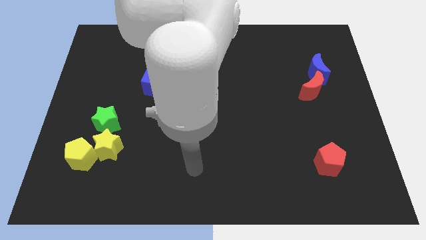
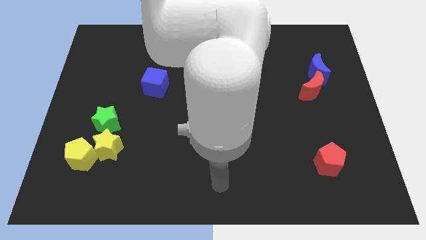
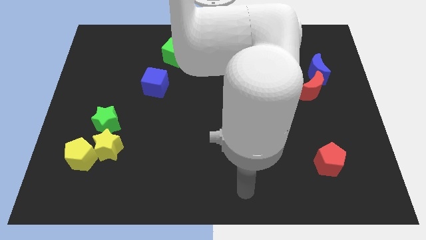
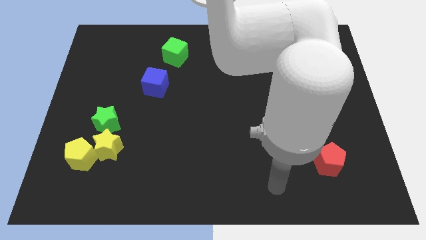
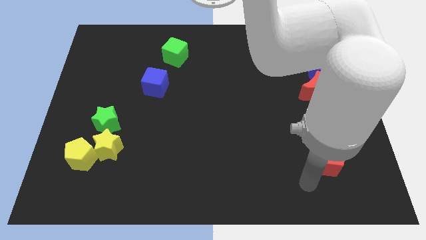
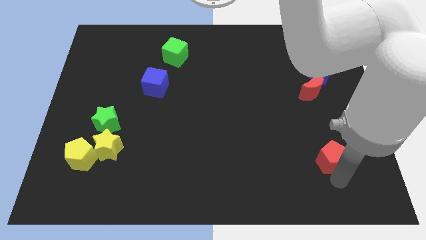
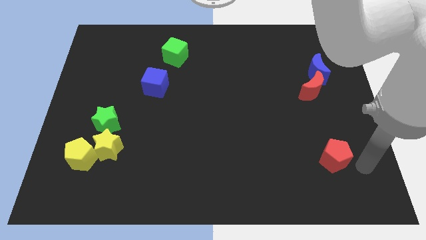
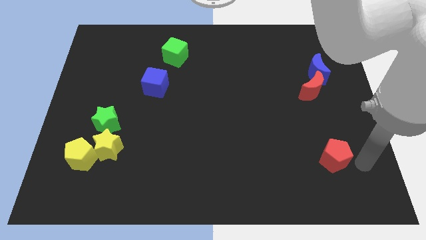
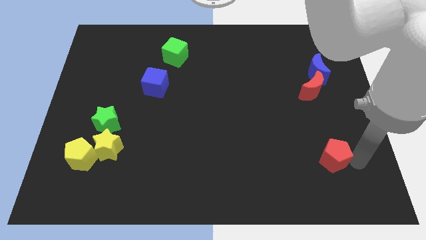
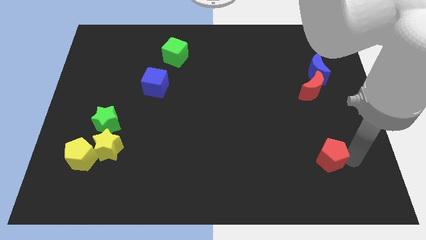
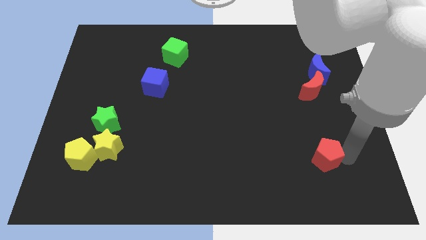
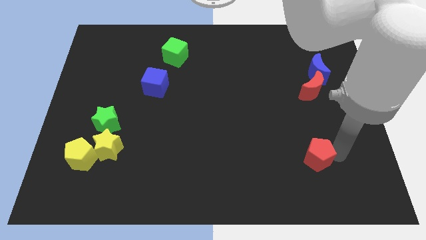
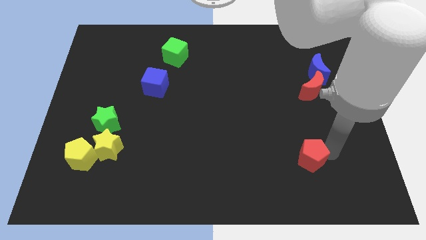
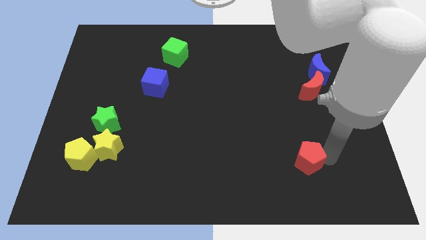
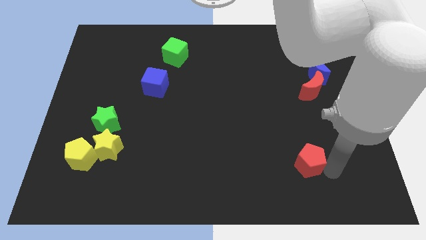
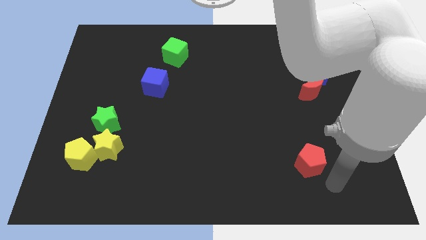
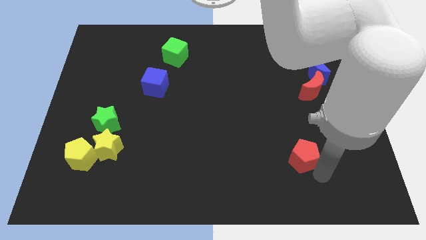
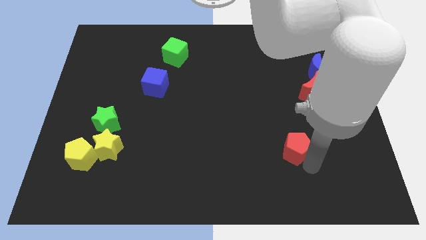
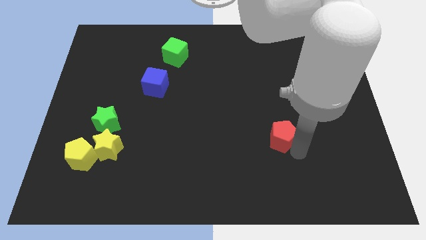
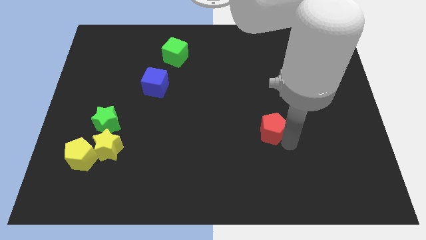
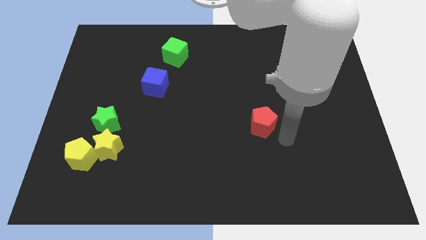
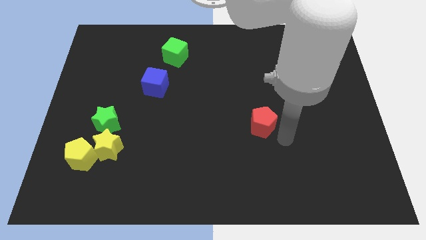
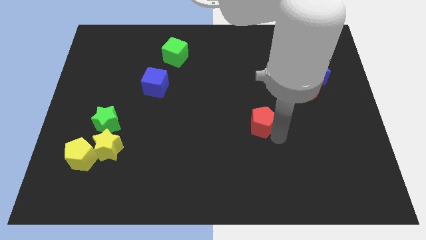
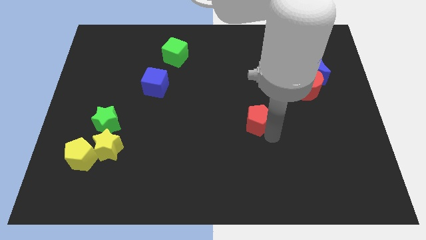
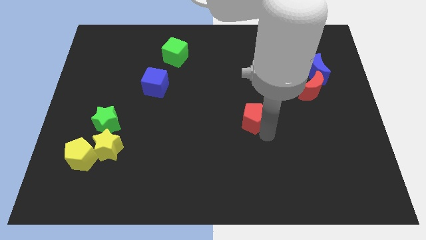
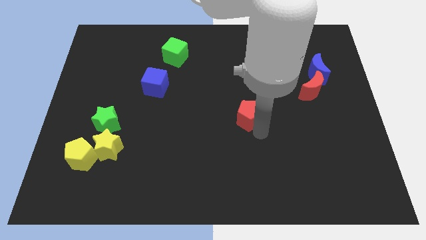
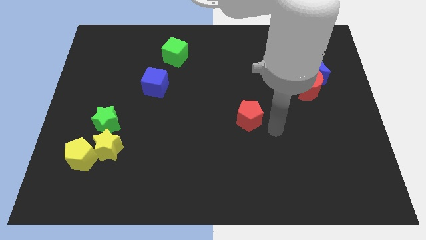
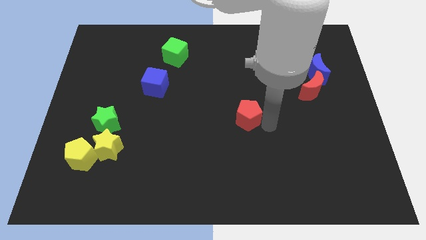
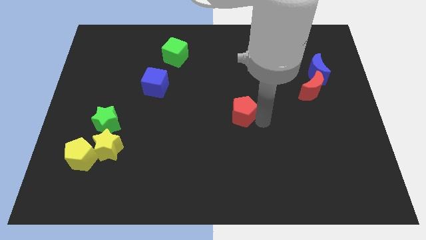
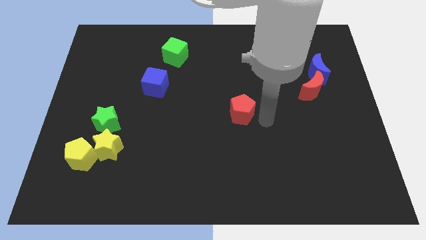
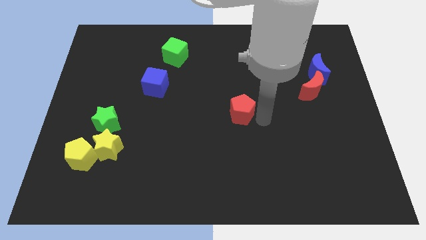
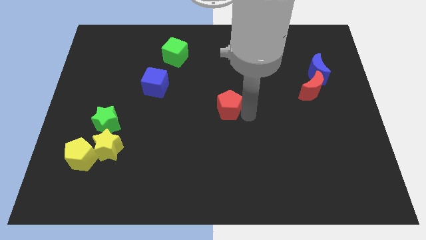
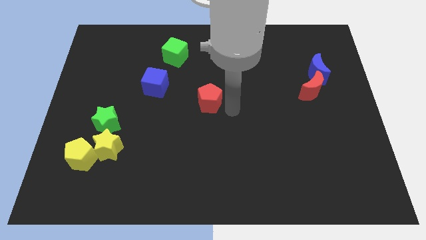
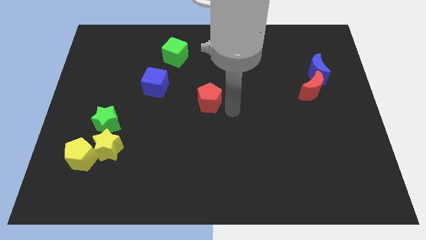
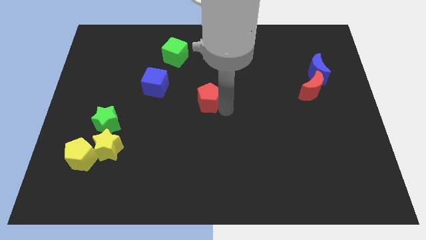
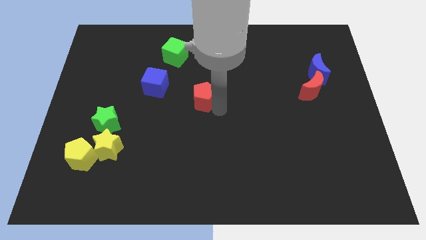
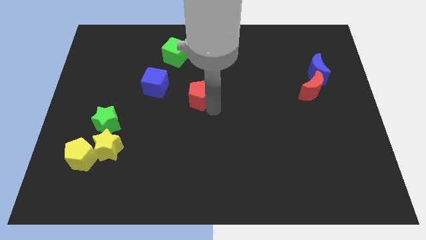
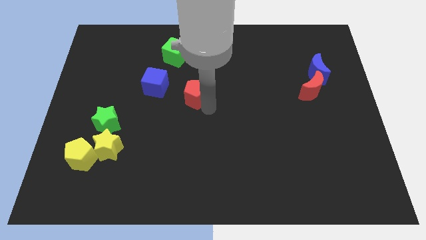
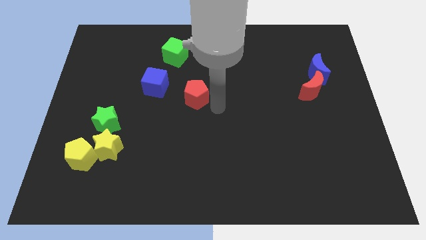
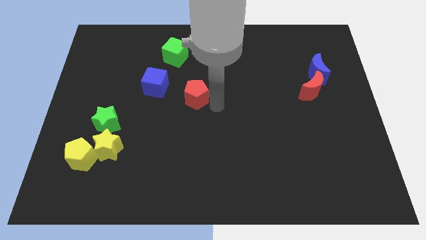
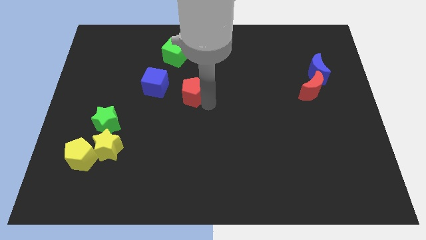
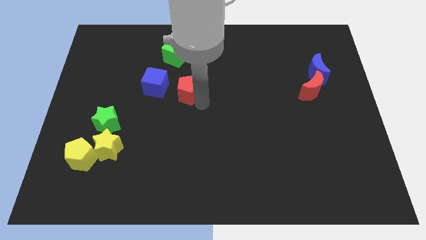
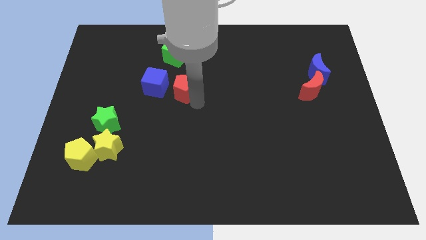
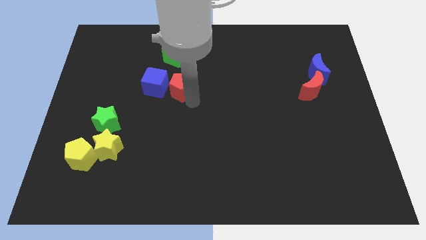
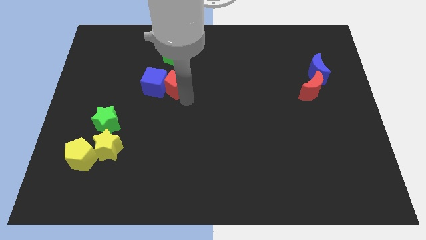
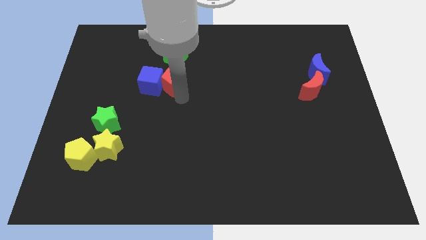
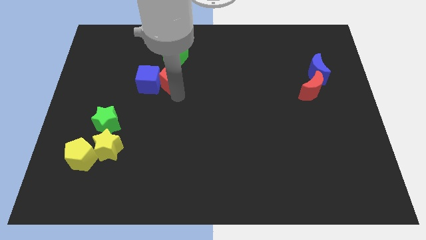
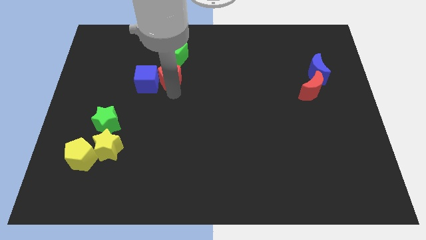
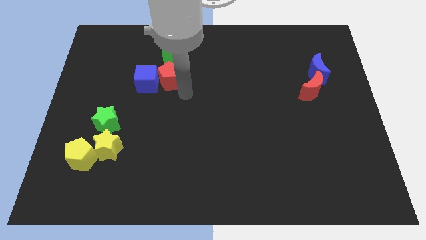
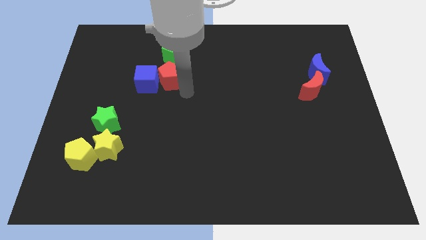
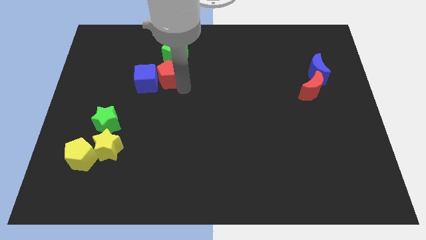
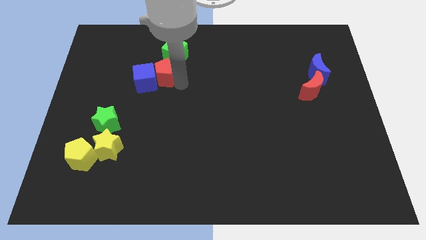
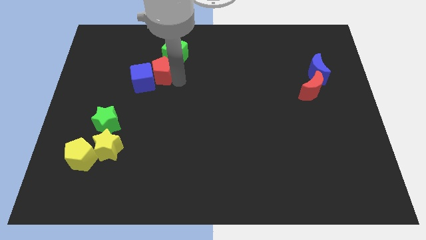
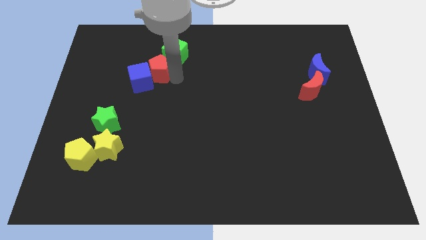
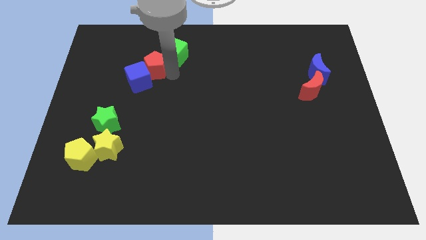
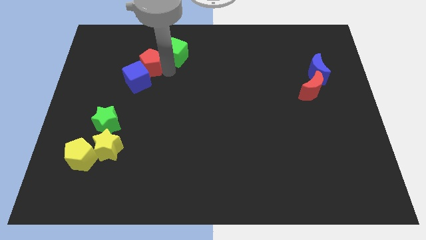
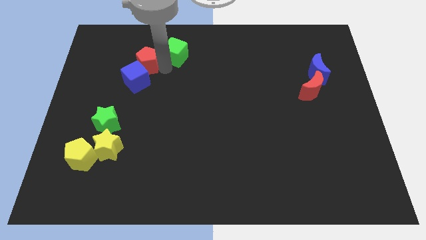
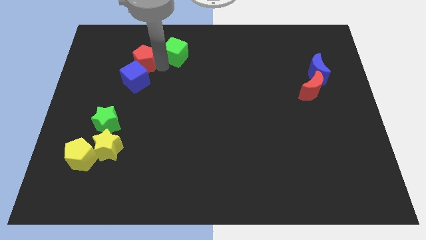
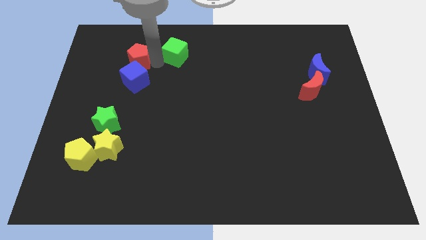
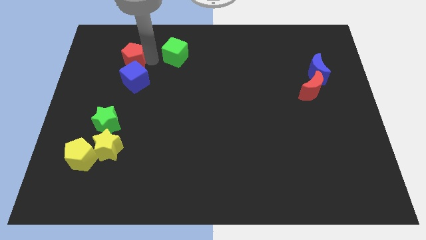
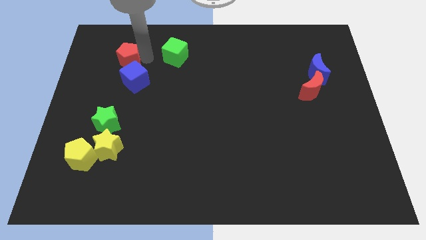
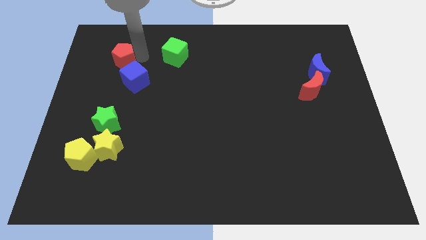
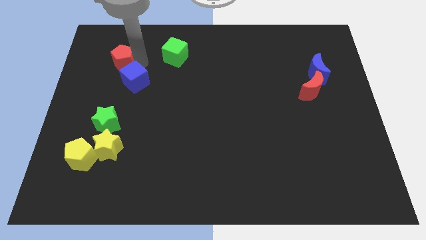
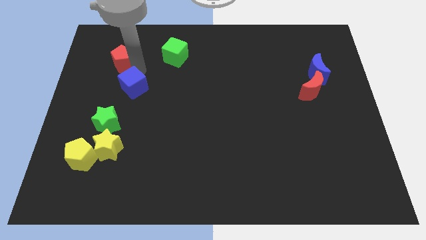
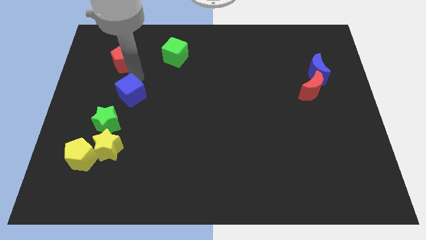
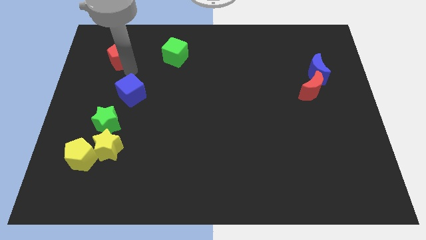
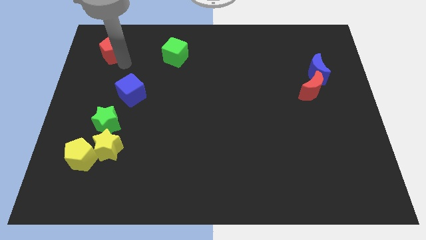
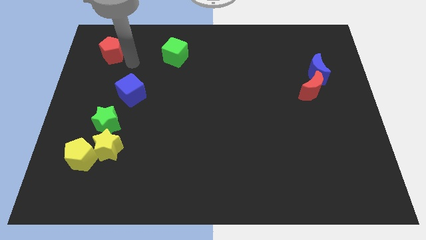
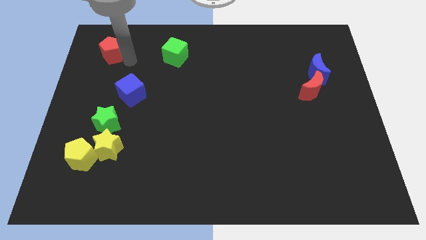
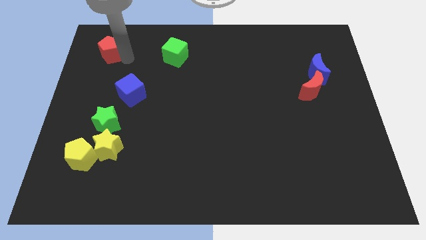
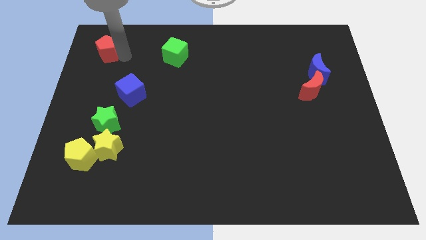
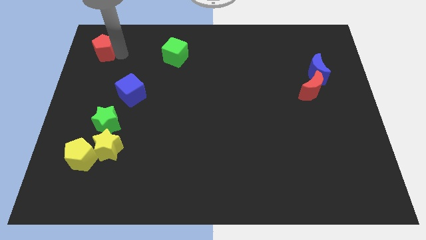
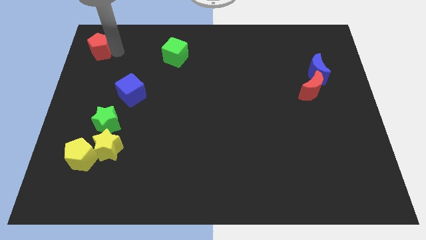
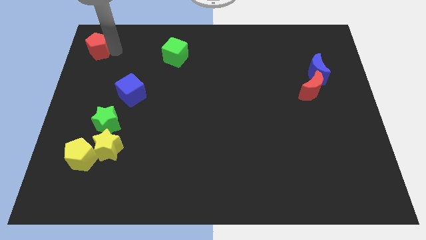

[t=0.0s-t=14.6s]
slide the red pentagon to the top left corner
